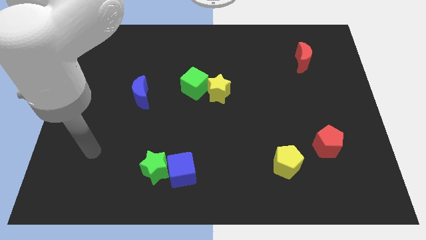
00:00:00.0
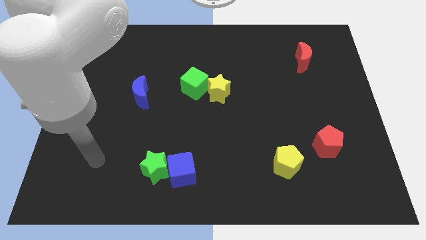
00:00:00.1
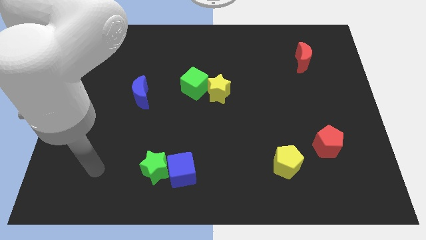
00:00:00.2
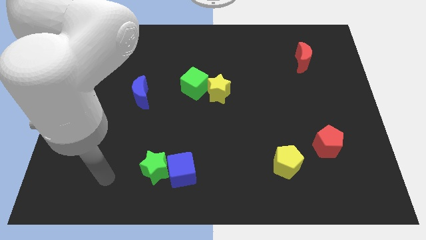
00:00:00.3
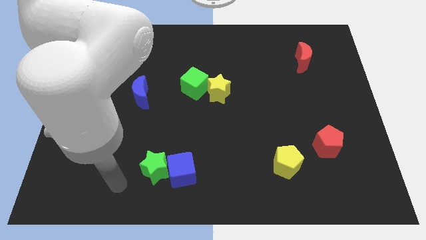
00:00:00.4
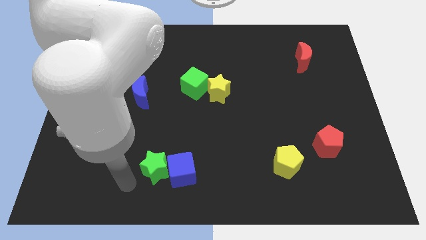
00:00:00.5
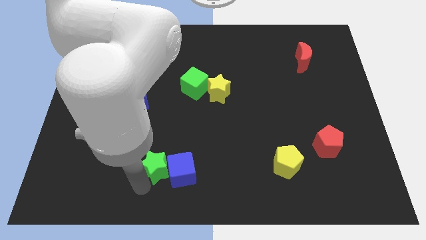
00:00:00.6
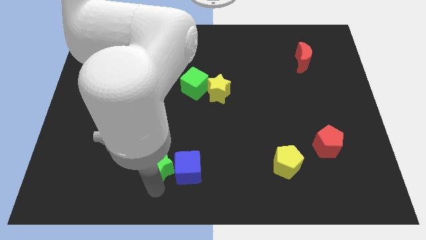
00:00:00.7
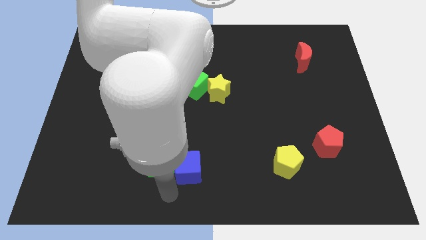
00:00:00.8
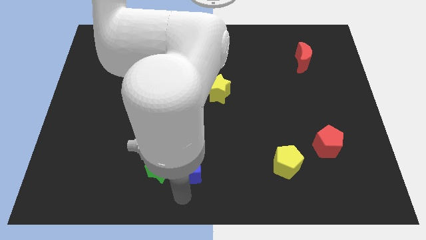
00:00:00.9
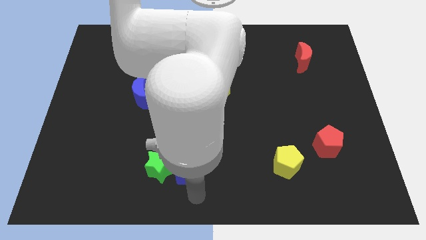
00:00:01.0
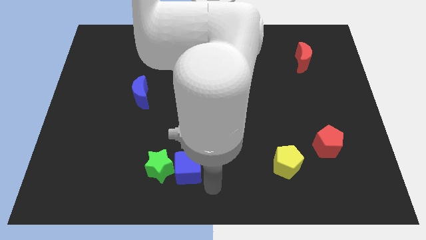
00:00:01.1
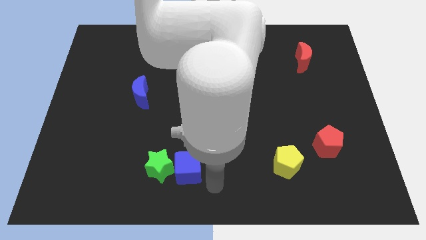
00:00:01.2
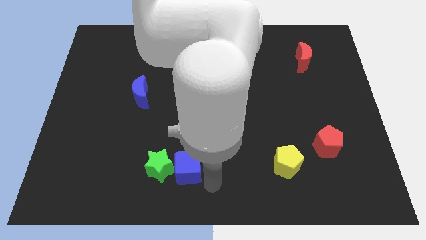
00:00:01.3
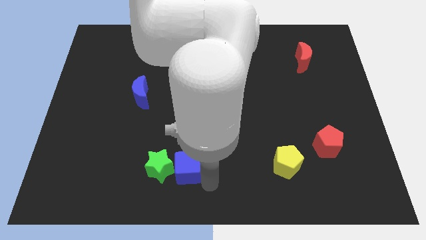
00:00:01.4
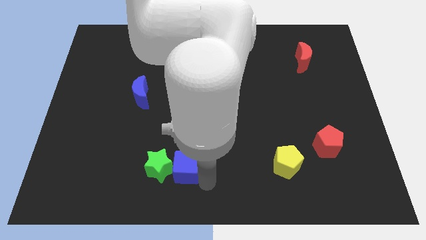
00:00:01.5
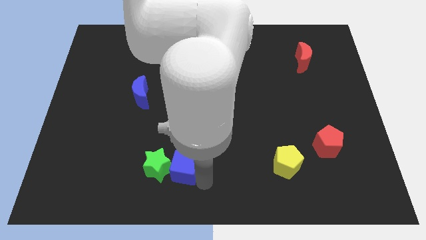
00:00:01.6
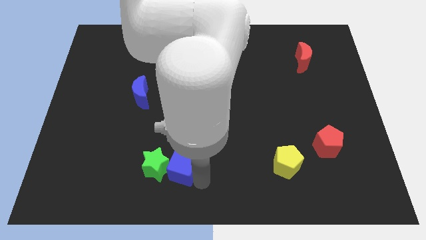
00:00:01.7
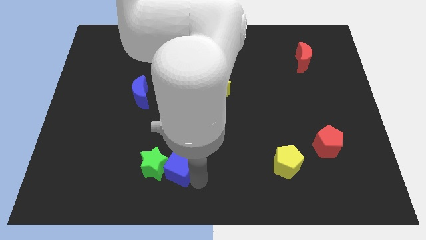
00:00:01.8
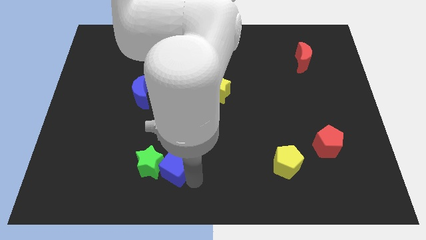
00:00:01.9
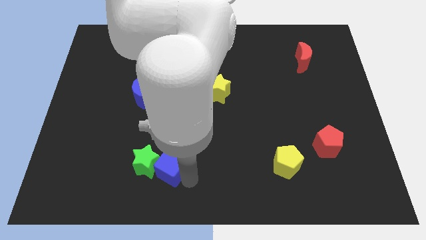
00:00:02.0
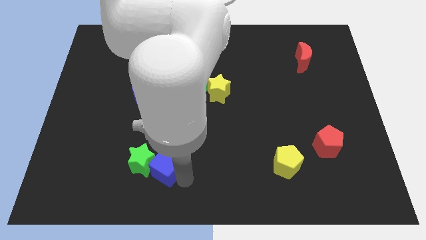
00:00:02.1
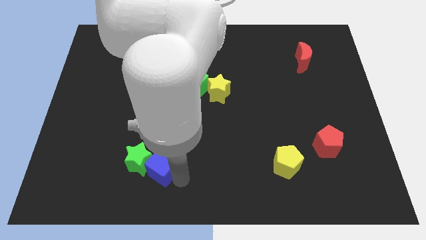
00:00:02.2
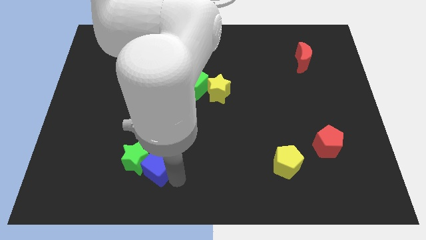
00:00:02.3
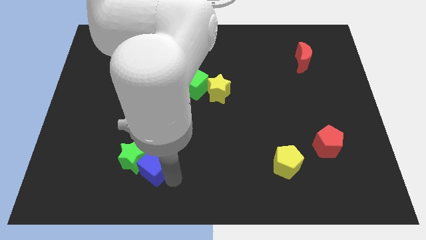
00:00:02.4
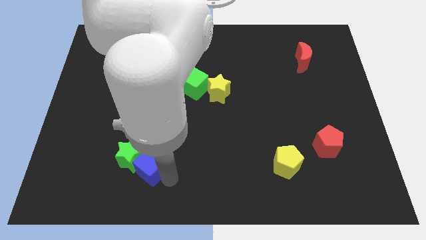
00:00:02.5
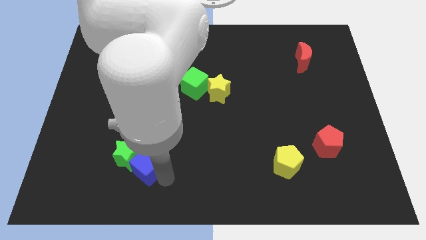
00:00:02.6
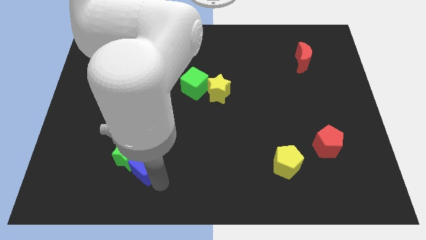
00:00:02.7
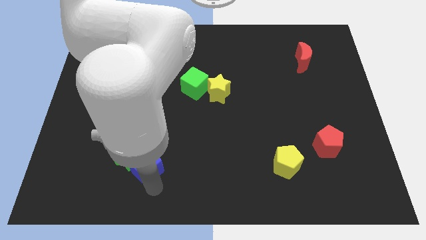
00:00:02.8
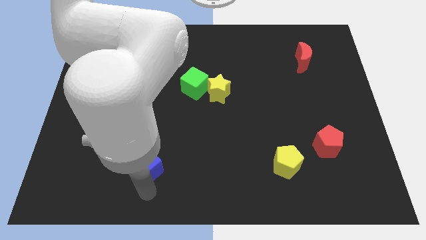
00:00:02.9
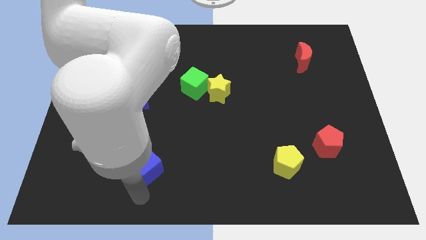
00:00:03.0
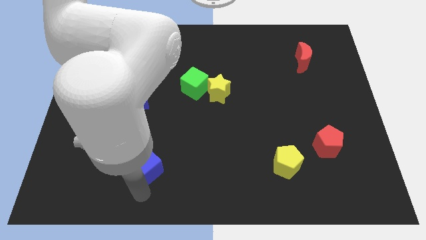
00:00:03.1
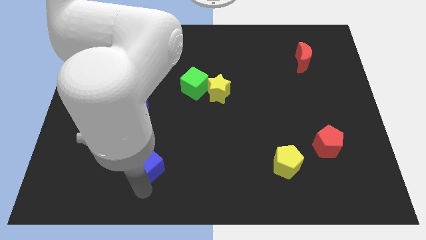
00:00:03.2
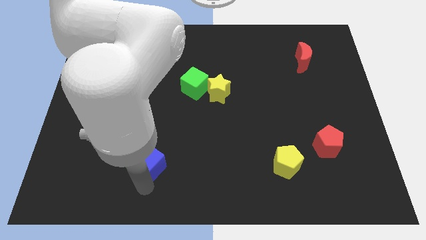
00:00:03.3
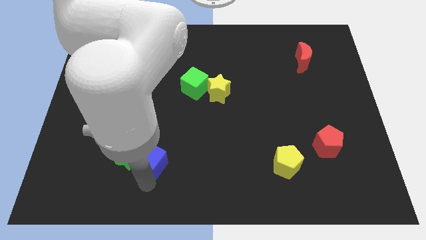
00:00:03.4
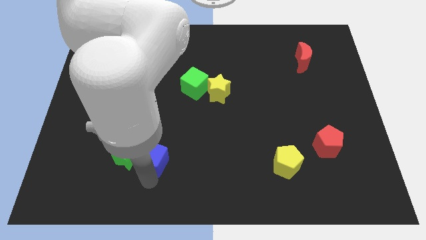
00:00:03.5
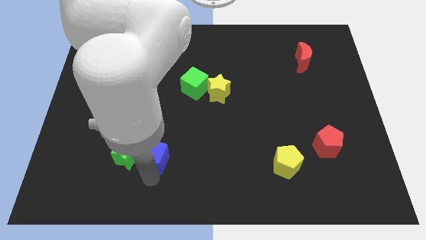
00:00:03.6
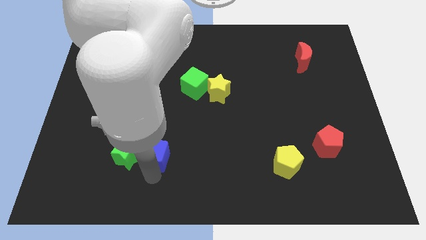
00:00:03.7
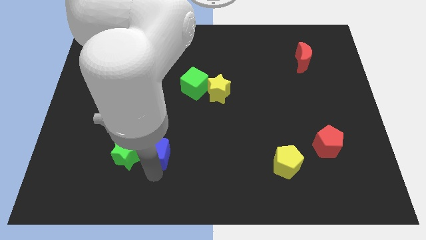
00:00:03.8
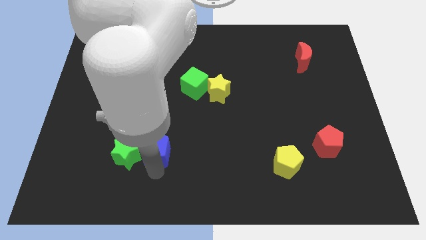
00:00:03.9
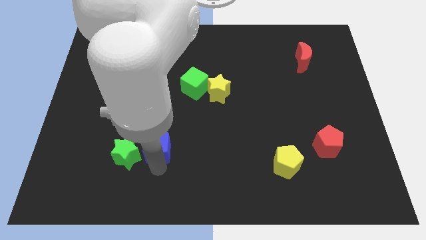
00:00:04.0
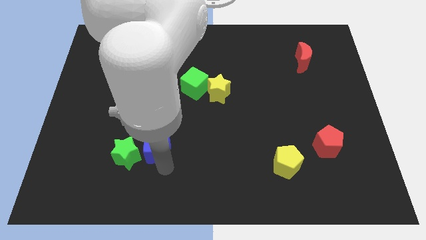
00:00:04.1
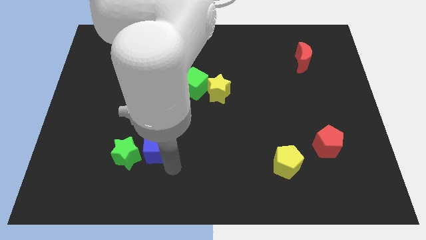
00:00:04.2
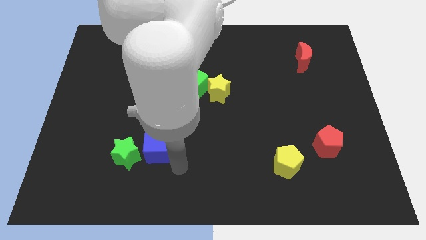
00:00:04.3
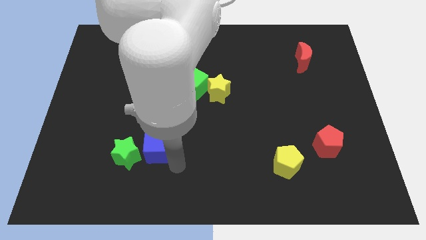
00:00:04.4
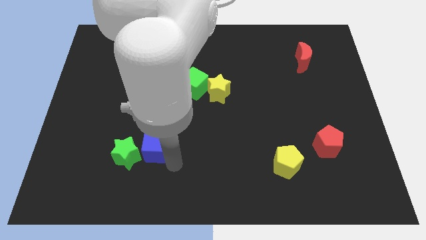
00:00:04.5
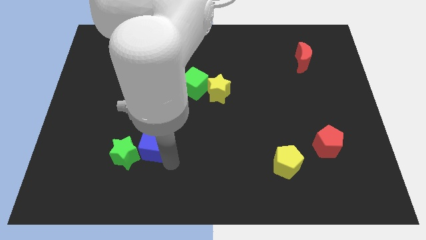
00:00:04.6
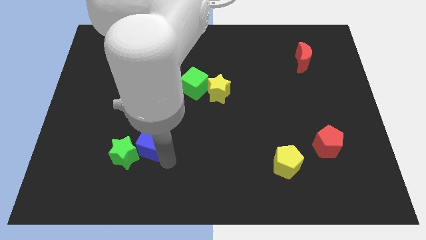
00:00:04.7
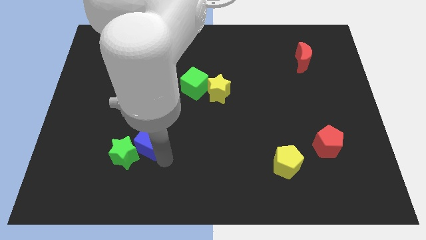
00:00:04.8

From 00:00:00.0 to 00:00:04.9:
slide the blue cube to the bottom side of the blue moon

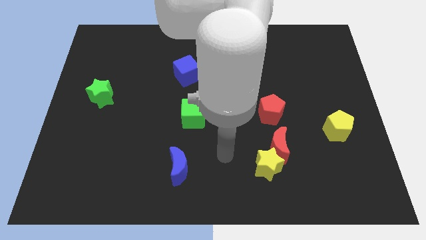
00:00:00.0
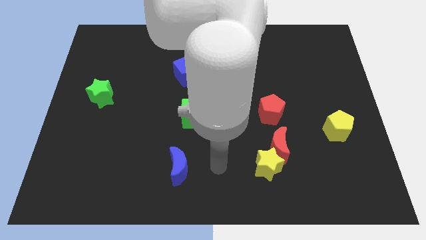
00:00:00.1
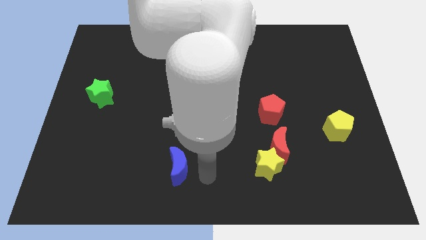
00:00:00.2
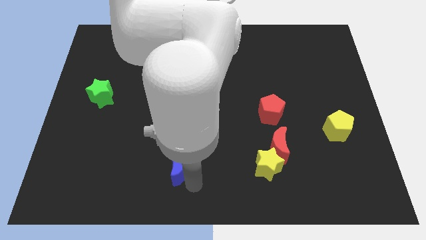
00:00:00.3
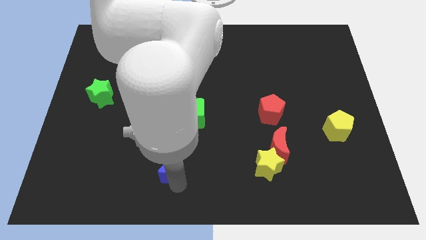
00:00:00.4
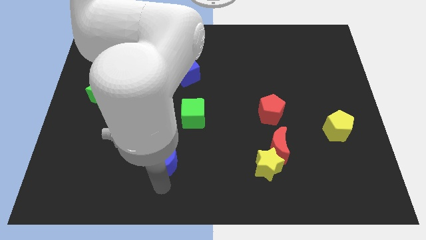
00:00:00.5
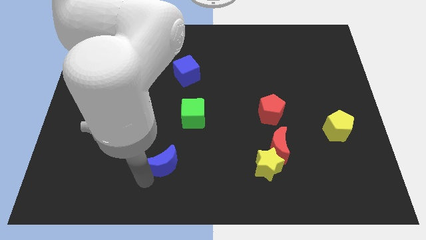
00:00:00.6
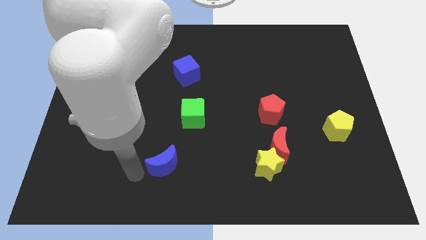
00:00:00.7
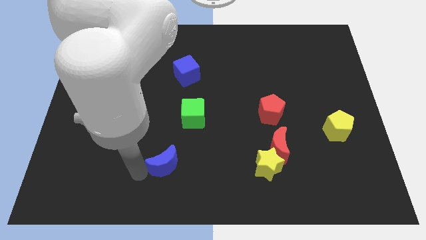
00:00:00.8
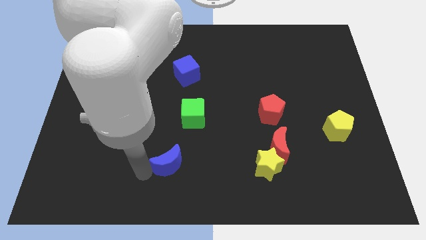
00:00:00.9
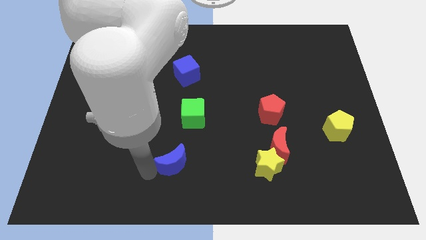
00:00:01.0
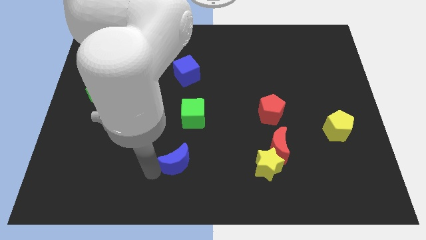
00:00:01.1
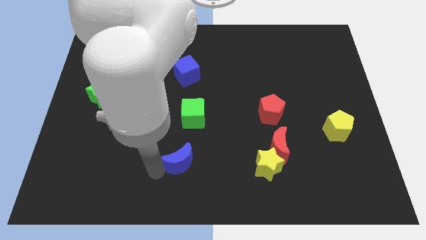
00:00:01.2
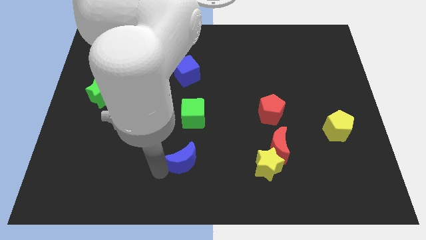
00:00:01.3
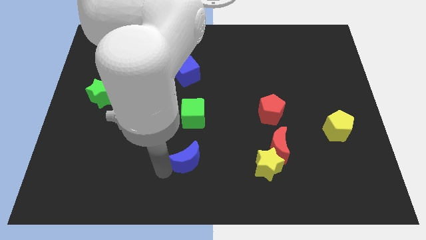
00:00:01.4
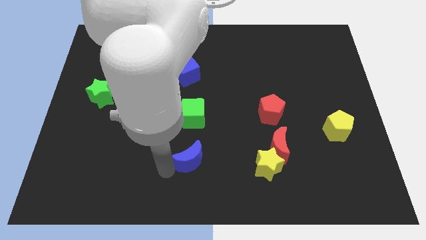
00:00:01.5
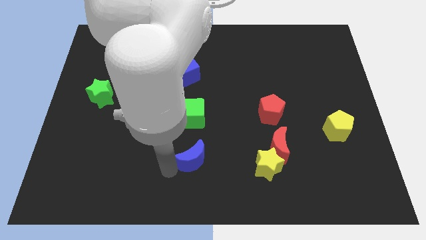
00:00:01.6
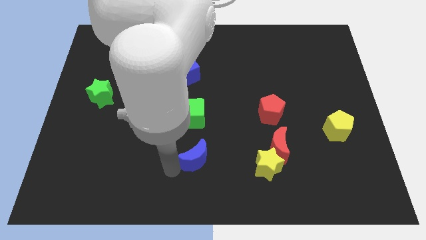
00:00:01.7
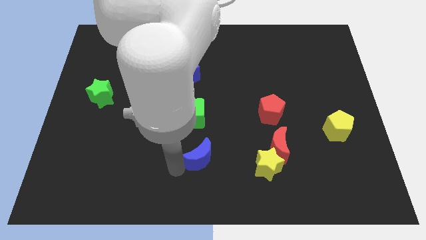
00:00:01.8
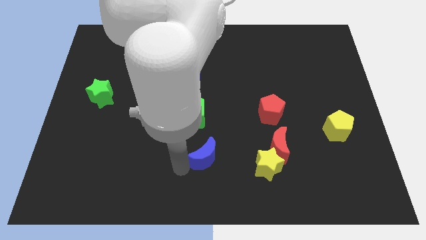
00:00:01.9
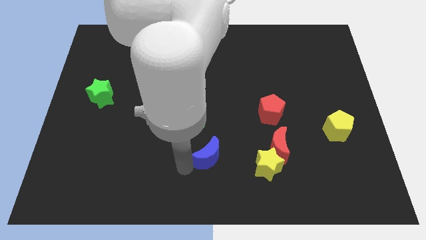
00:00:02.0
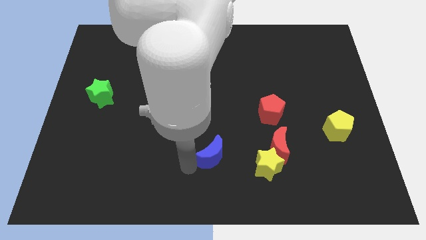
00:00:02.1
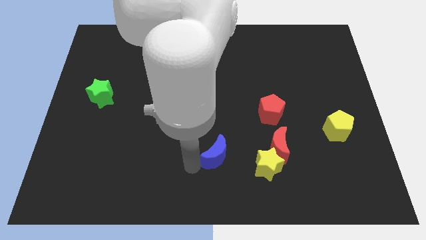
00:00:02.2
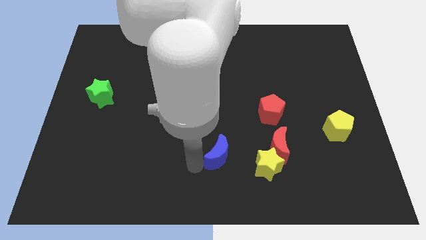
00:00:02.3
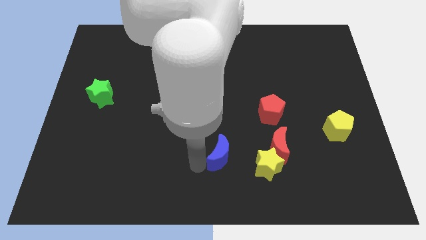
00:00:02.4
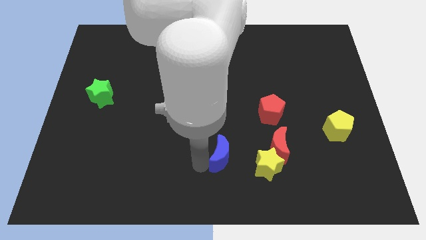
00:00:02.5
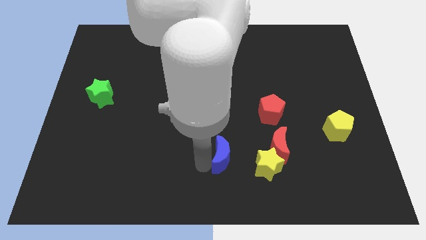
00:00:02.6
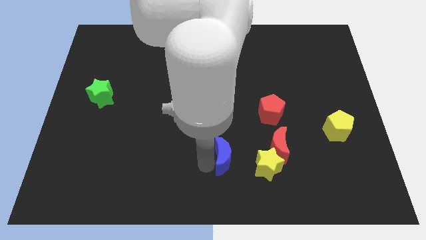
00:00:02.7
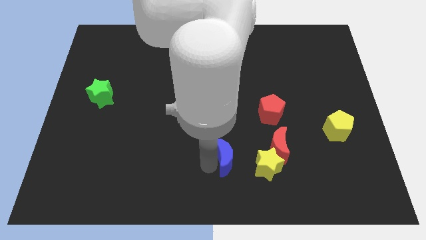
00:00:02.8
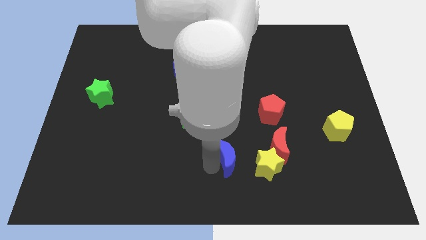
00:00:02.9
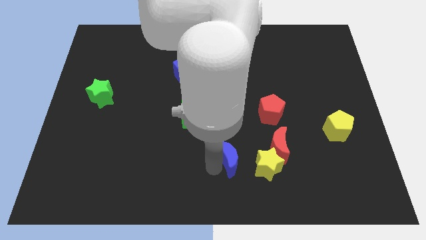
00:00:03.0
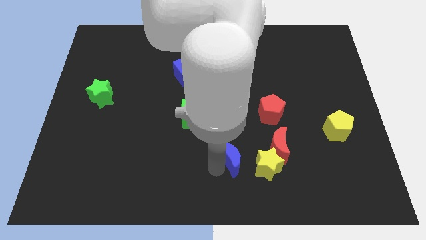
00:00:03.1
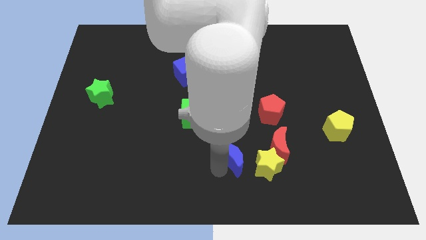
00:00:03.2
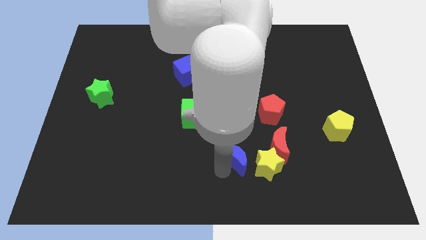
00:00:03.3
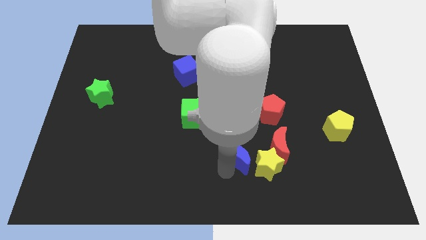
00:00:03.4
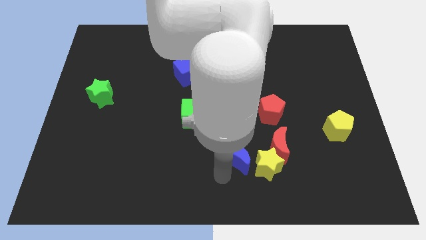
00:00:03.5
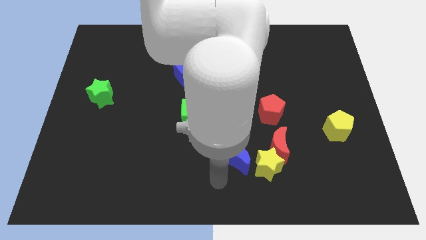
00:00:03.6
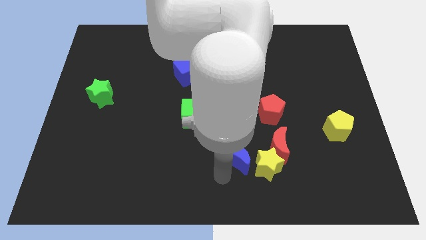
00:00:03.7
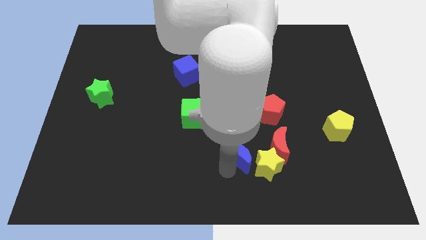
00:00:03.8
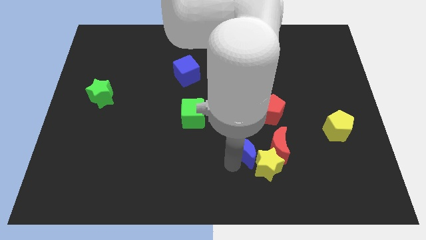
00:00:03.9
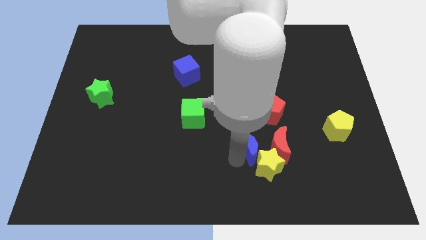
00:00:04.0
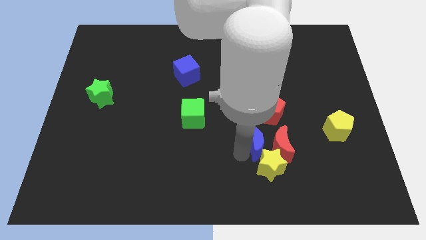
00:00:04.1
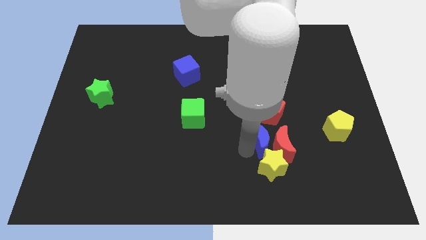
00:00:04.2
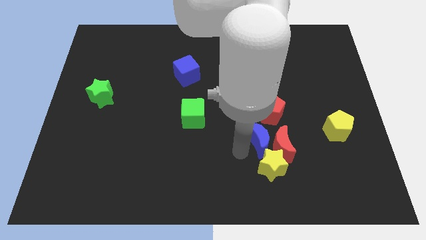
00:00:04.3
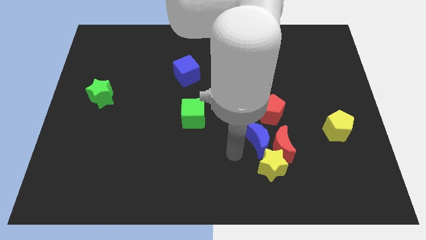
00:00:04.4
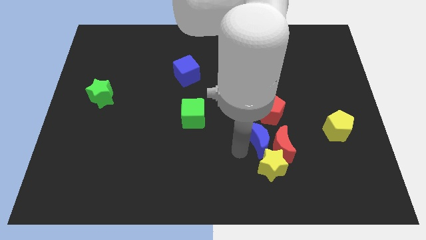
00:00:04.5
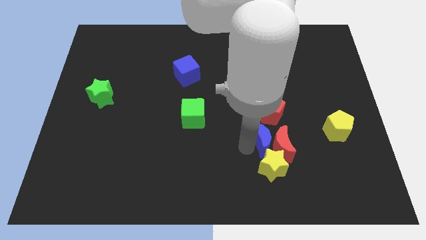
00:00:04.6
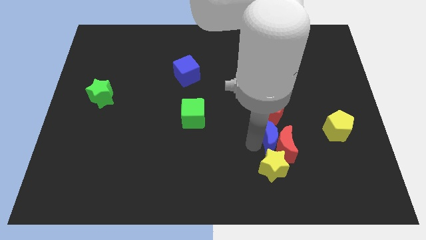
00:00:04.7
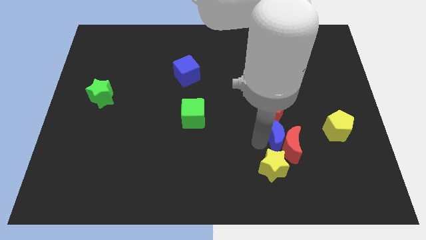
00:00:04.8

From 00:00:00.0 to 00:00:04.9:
move the blue moon to the top right of the yellow star
